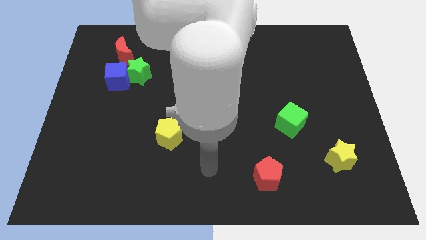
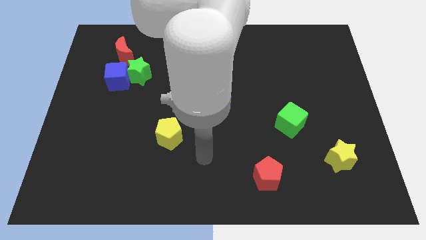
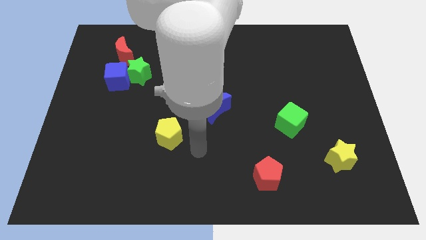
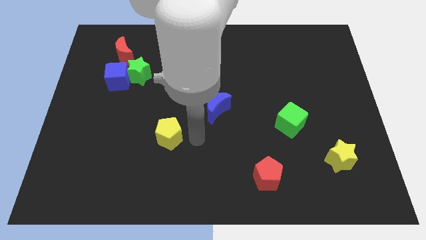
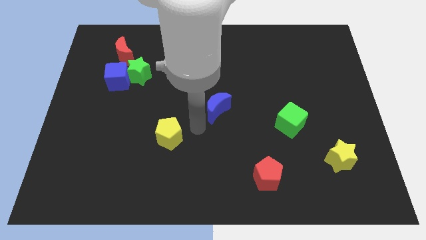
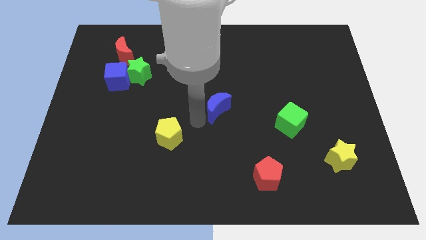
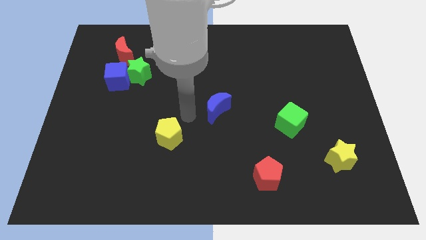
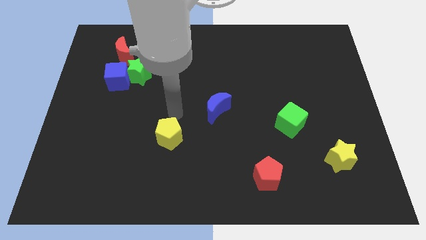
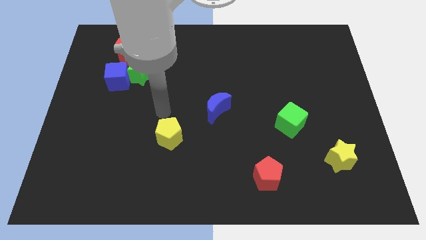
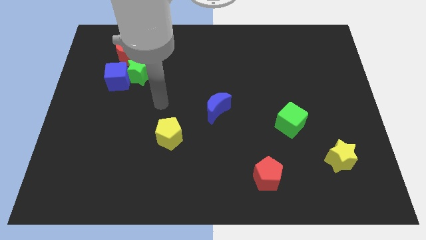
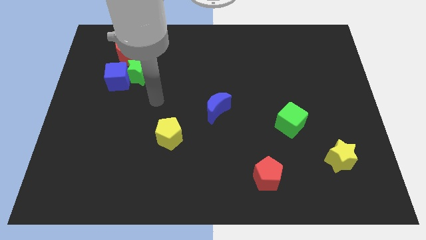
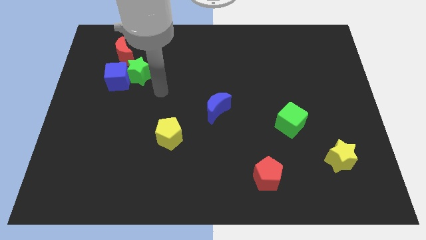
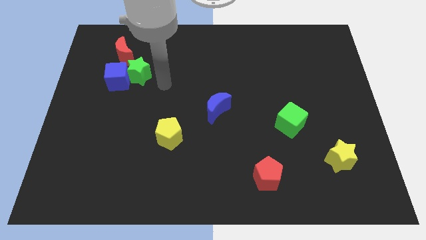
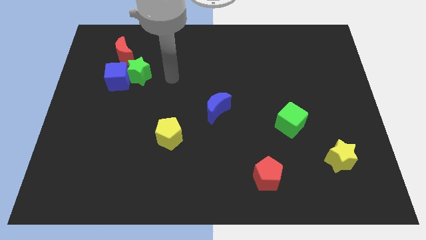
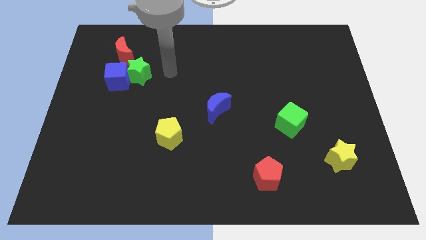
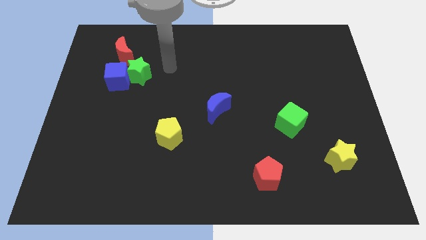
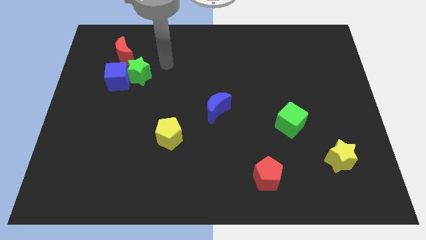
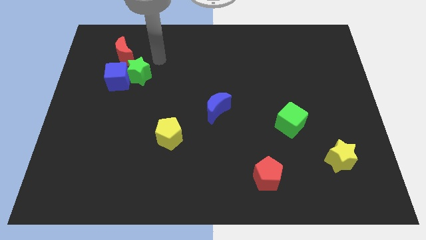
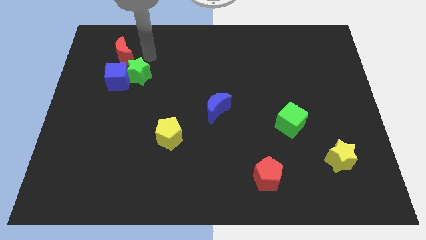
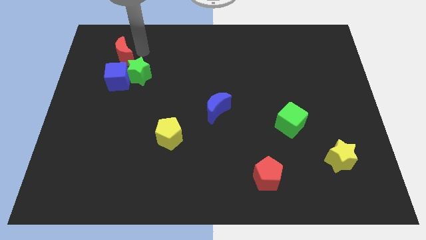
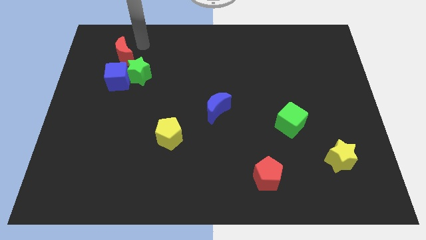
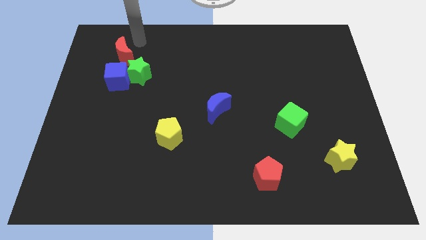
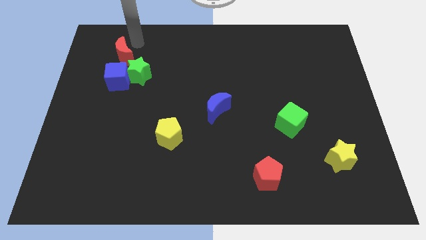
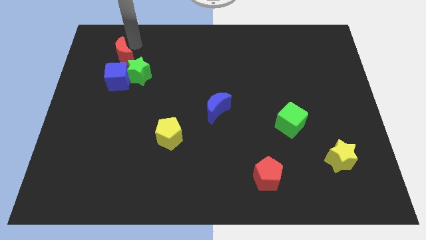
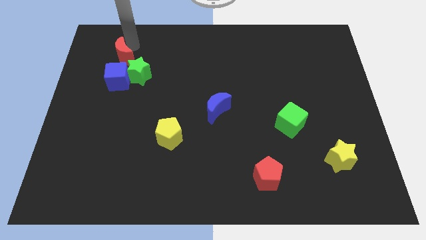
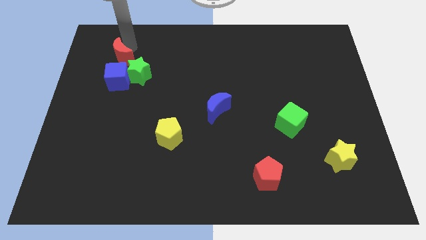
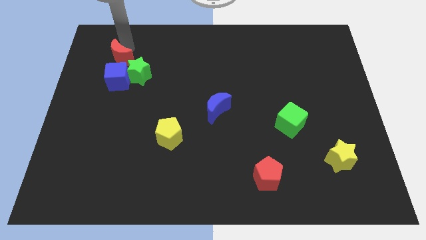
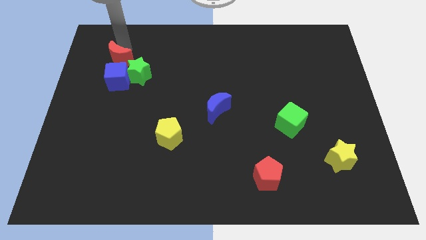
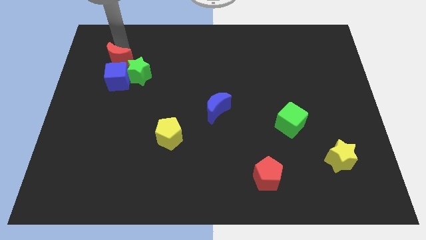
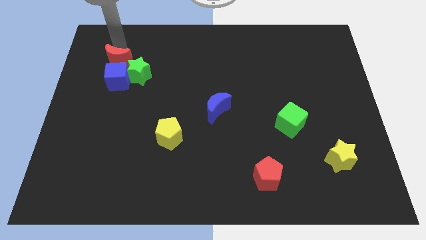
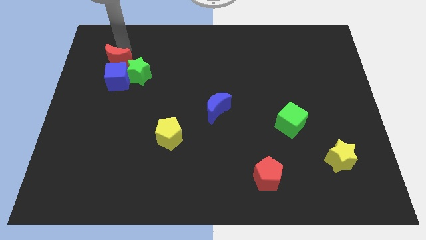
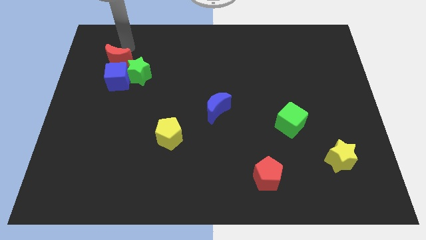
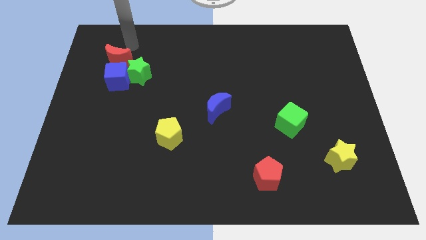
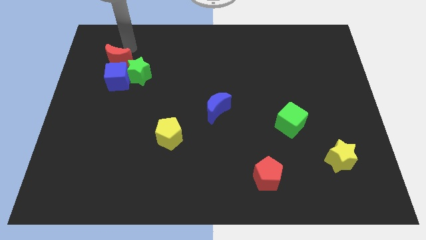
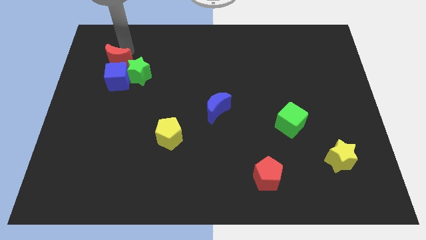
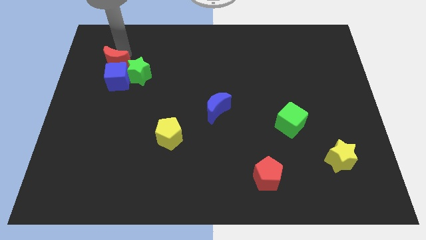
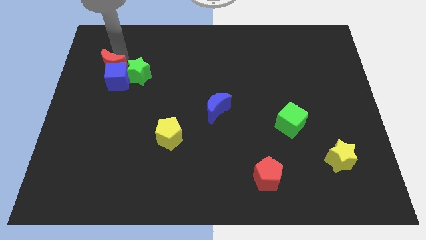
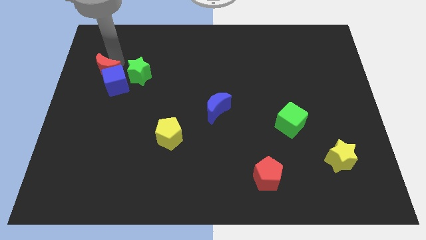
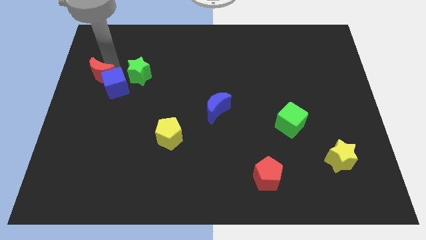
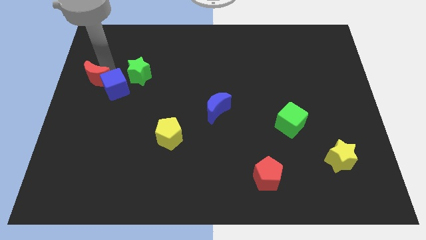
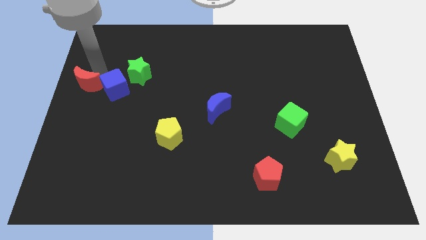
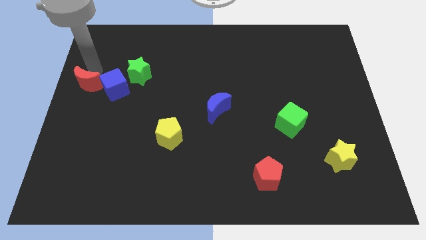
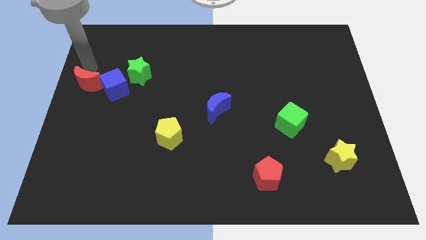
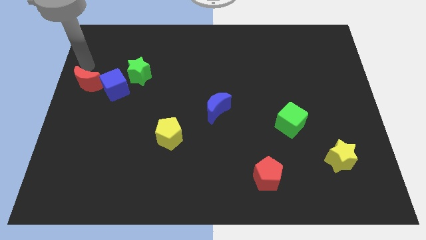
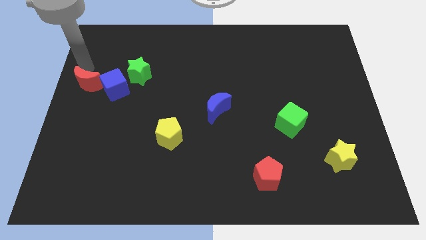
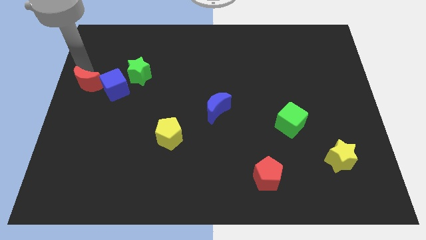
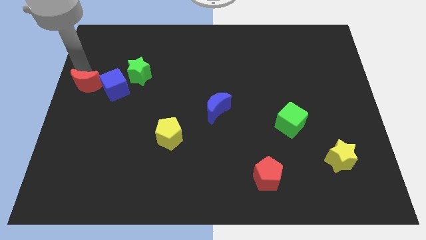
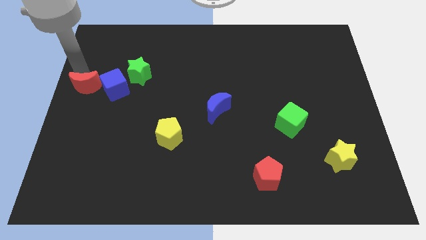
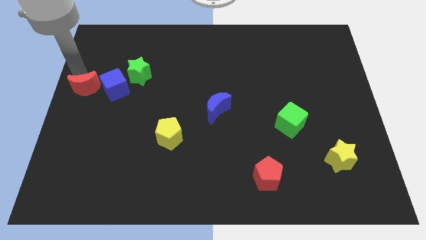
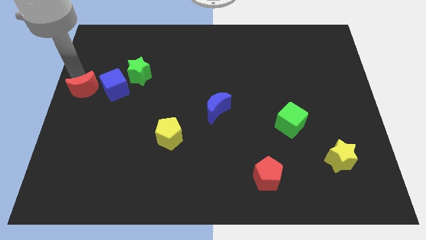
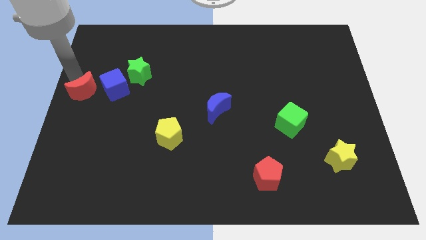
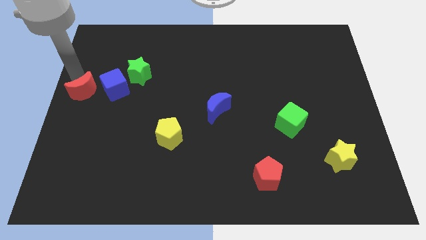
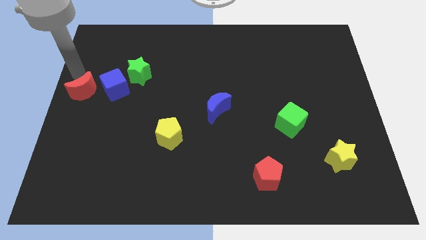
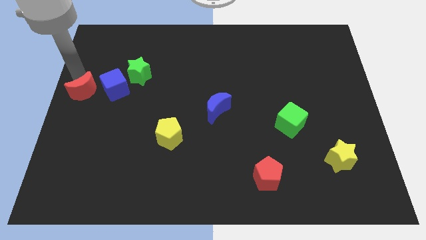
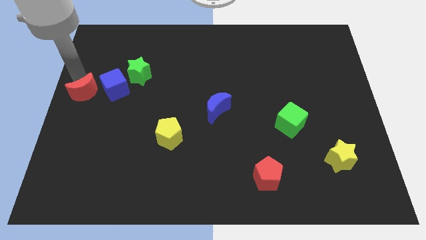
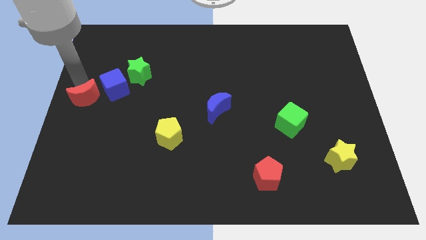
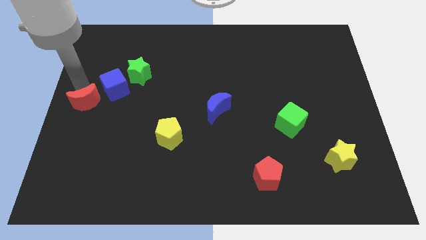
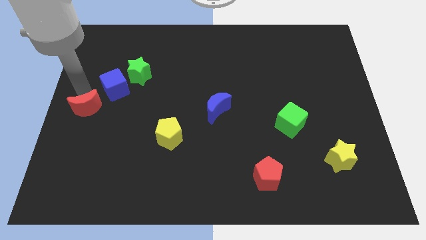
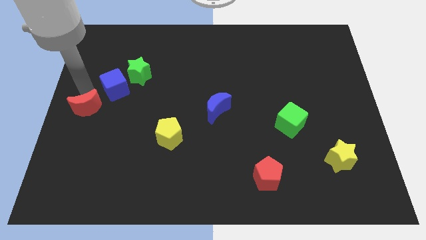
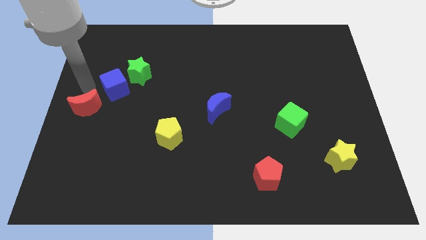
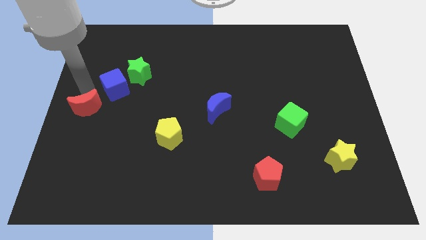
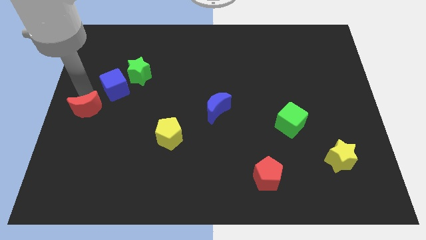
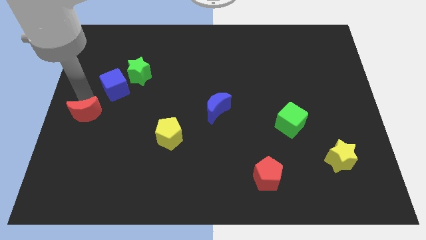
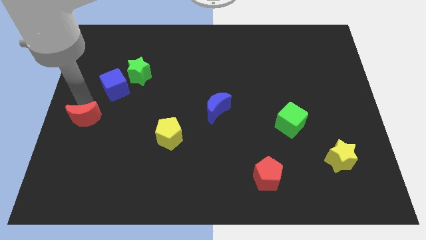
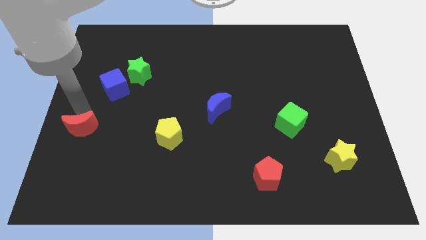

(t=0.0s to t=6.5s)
push the red moon downwards

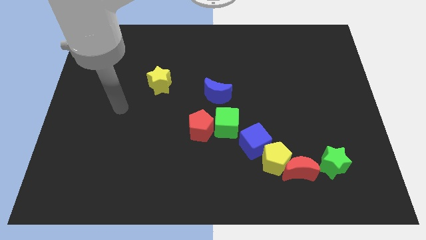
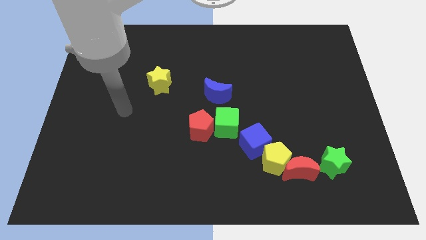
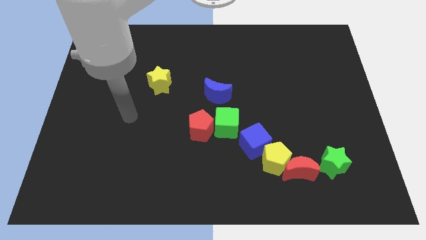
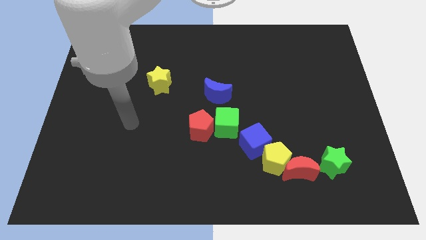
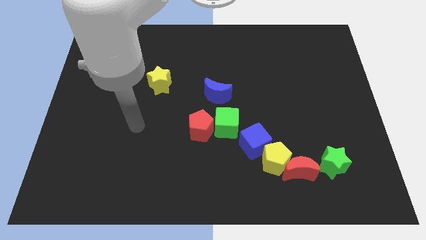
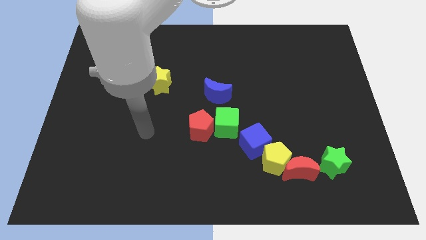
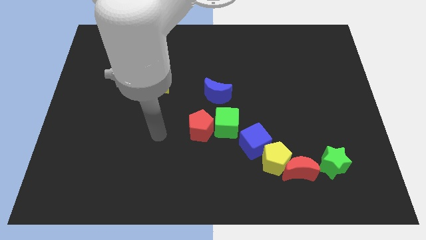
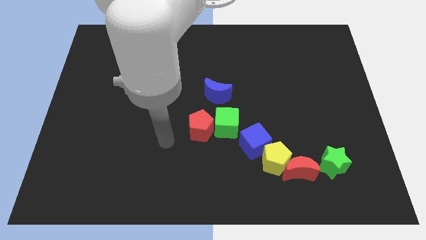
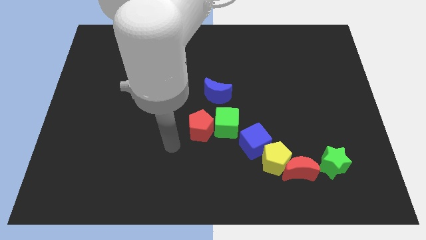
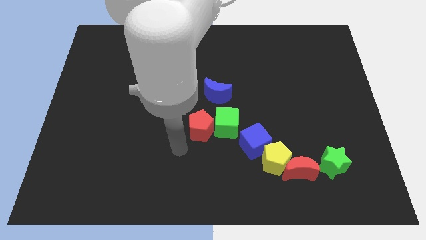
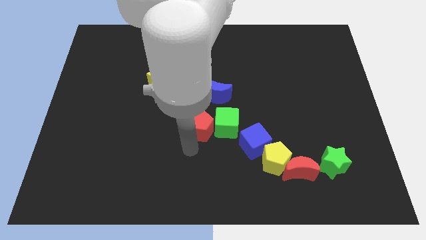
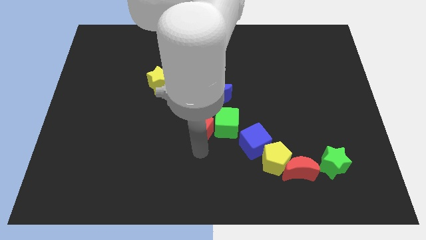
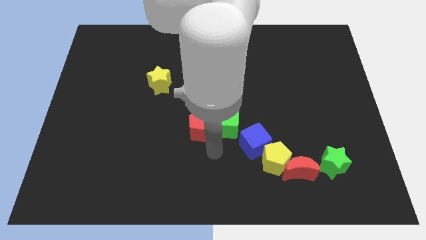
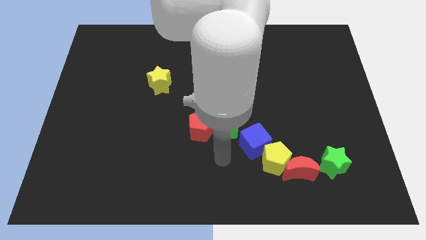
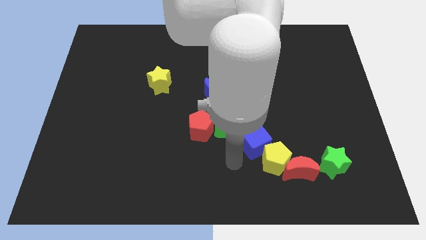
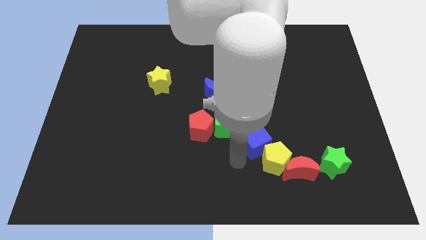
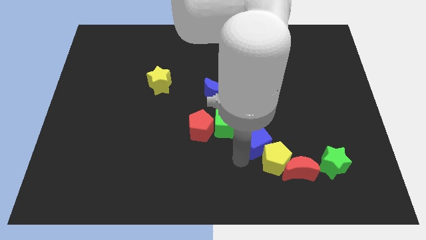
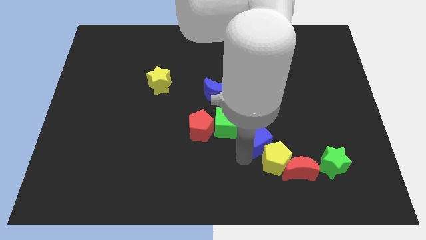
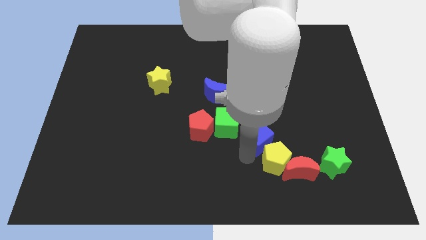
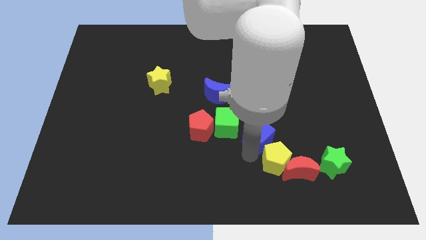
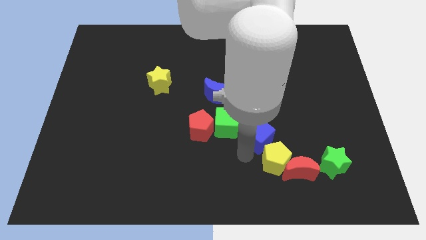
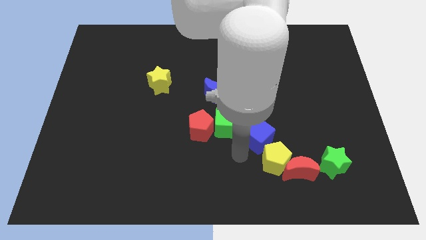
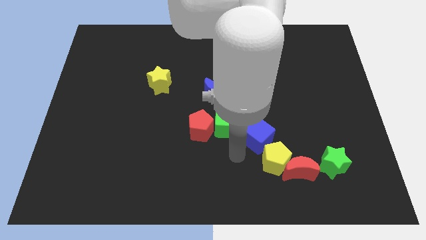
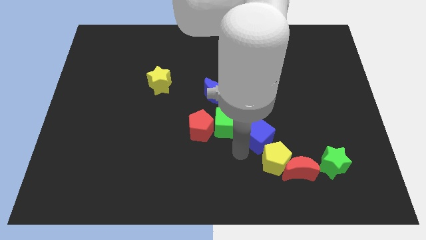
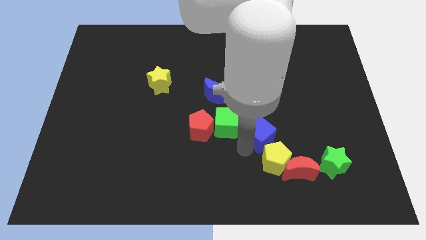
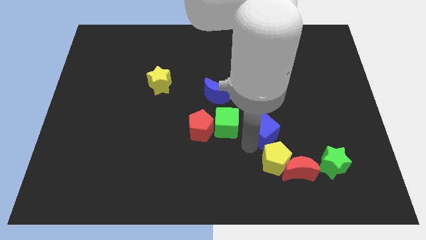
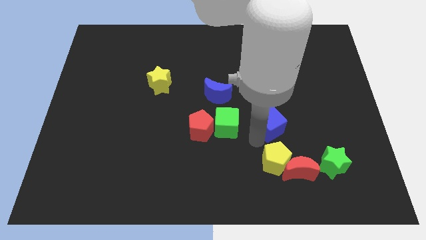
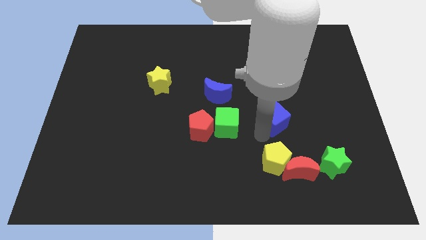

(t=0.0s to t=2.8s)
push the blue cube slightly upwards and to the right diagonally
